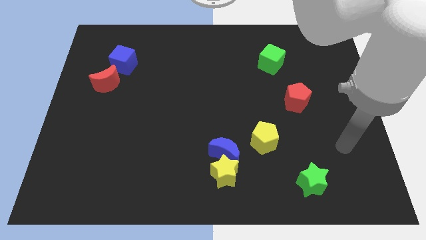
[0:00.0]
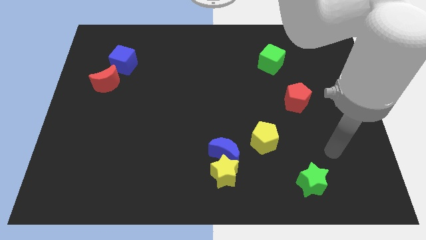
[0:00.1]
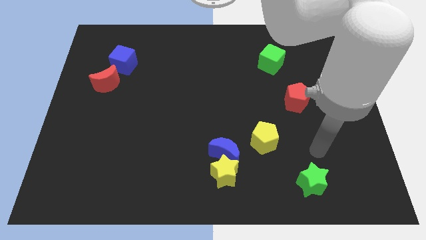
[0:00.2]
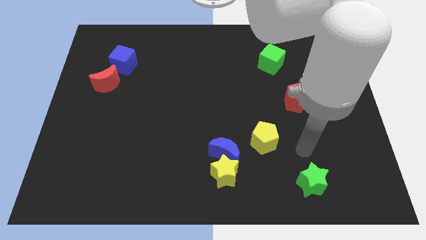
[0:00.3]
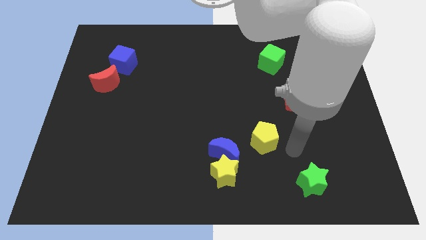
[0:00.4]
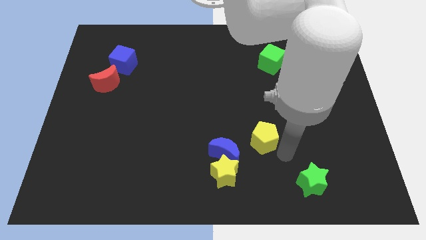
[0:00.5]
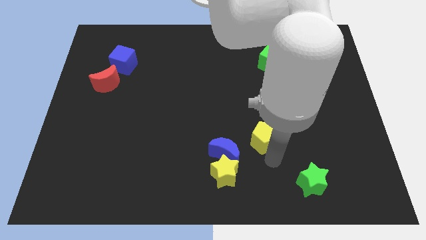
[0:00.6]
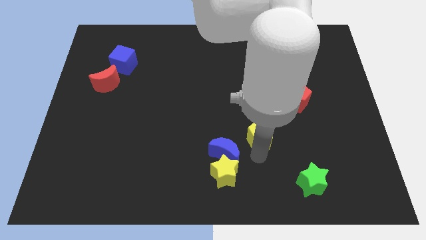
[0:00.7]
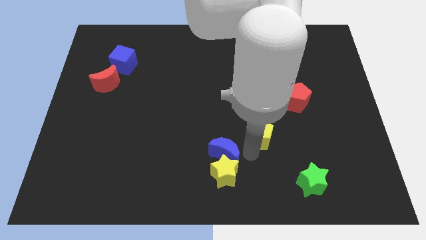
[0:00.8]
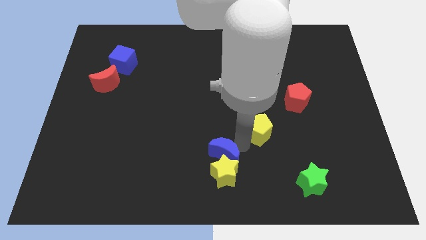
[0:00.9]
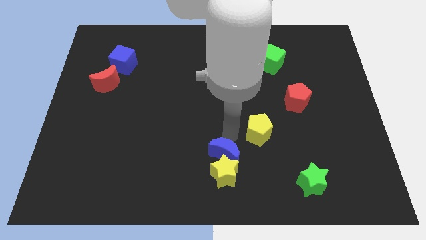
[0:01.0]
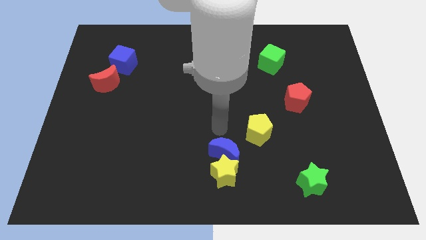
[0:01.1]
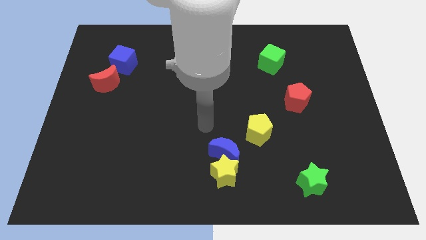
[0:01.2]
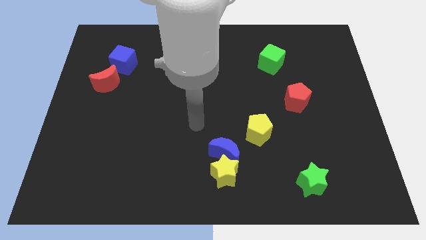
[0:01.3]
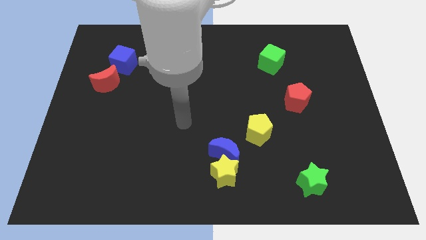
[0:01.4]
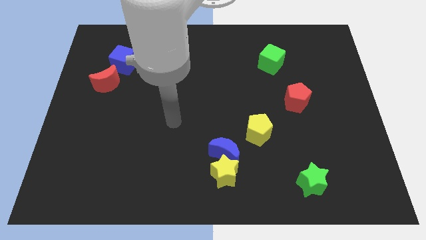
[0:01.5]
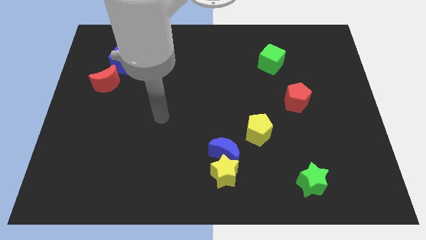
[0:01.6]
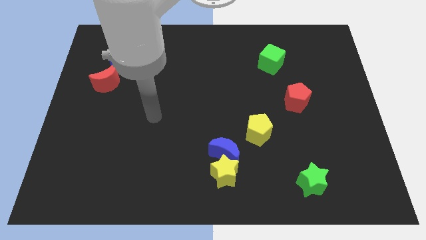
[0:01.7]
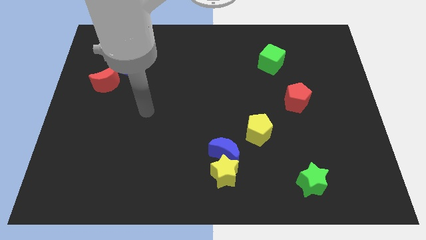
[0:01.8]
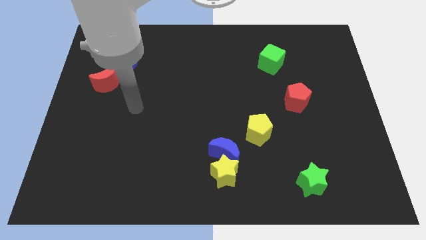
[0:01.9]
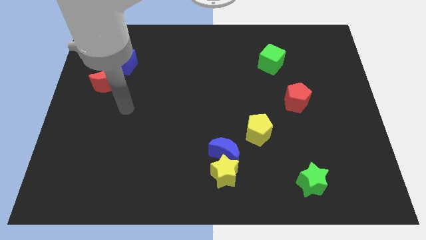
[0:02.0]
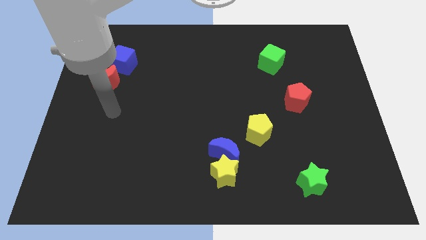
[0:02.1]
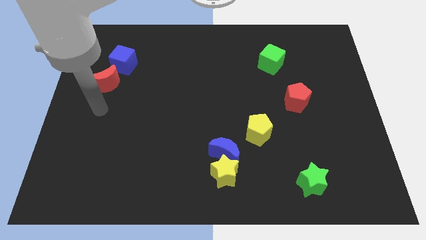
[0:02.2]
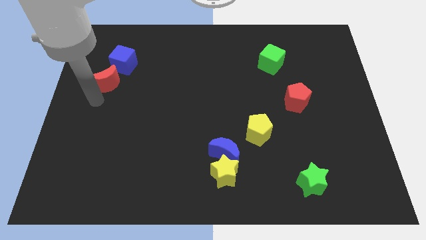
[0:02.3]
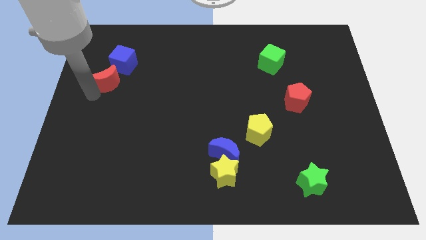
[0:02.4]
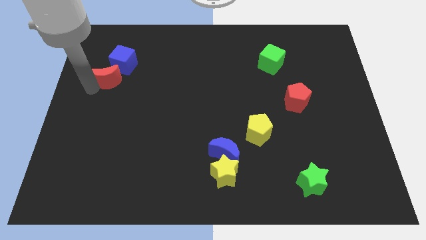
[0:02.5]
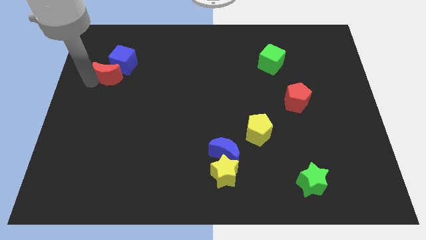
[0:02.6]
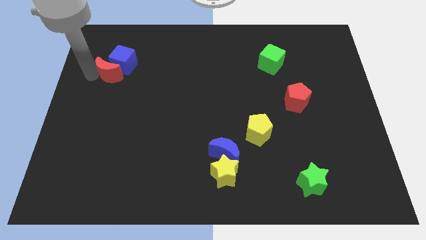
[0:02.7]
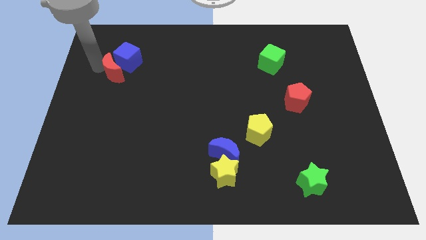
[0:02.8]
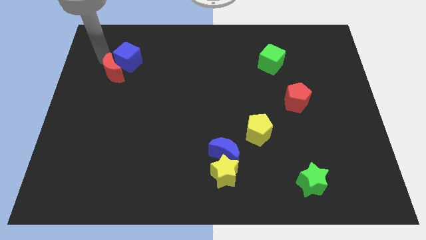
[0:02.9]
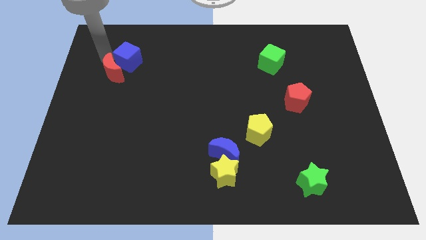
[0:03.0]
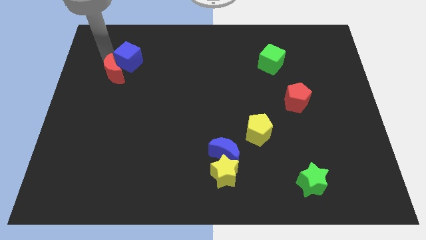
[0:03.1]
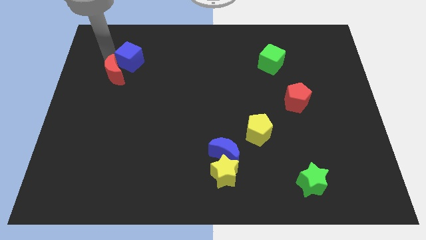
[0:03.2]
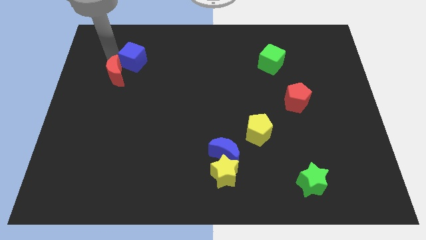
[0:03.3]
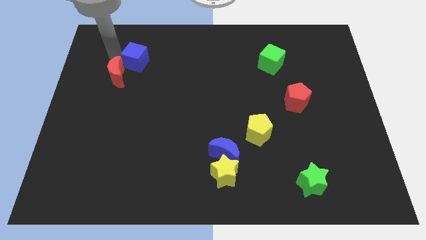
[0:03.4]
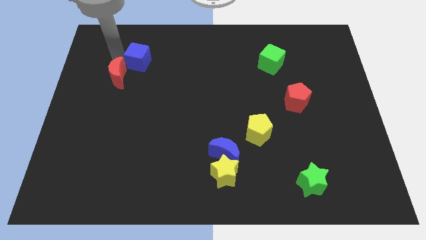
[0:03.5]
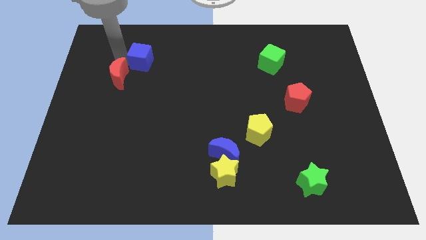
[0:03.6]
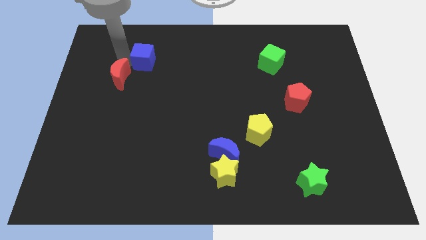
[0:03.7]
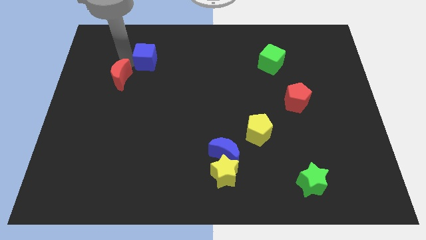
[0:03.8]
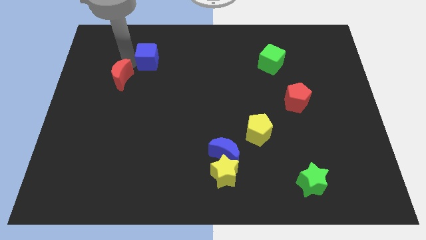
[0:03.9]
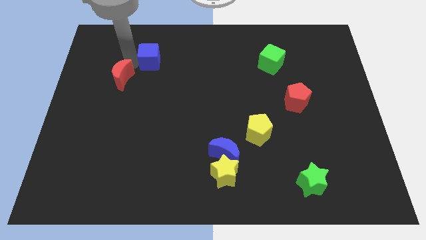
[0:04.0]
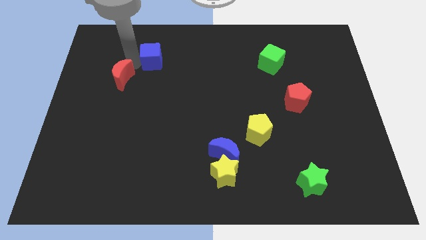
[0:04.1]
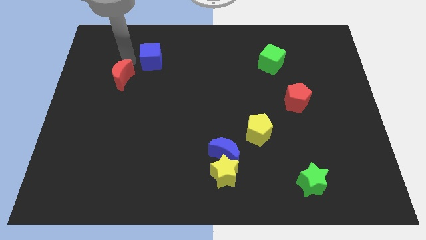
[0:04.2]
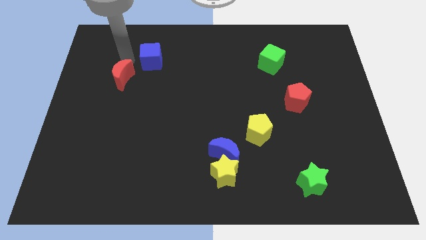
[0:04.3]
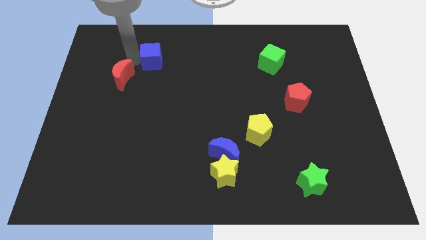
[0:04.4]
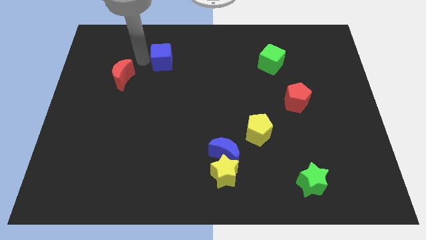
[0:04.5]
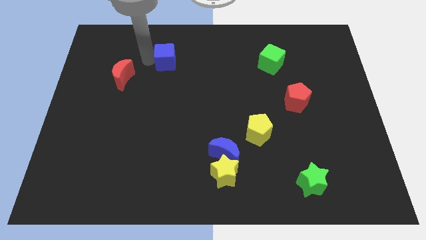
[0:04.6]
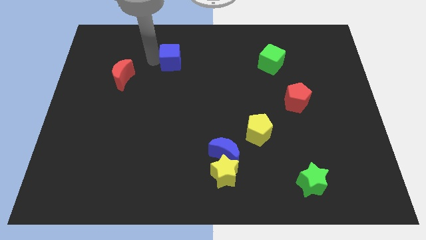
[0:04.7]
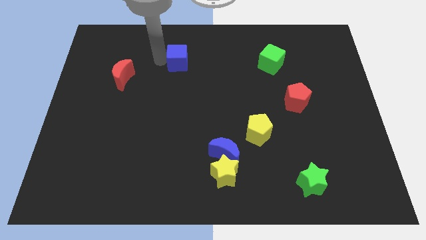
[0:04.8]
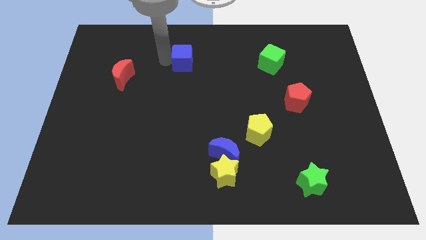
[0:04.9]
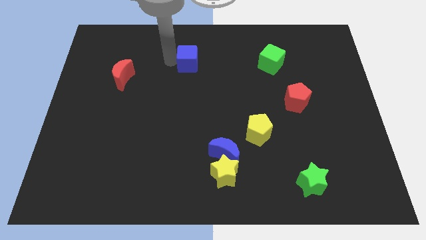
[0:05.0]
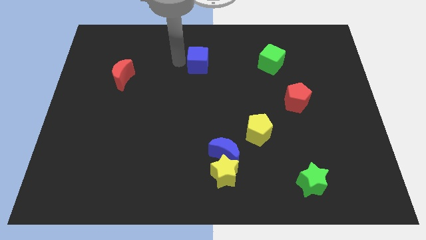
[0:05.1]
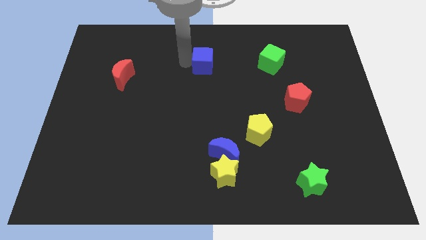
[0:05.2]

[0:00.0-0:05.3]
slide the blue cube to the right

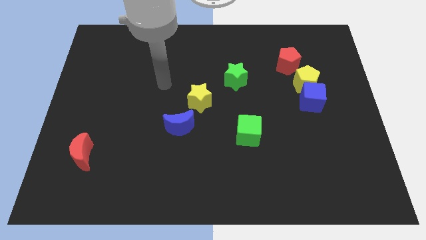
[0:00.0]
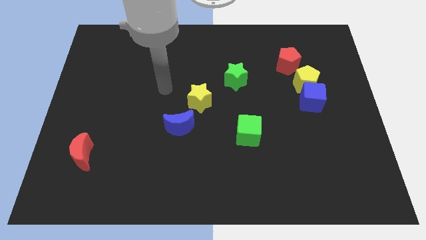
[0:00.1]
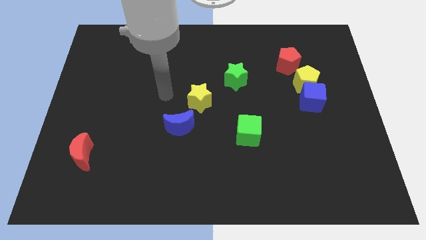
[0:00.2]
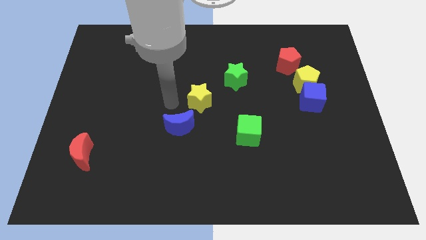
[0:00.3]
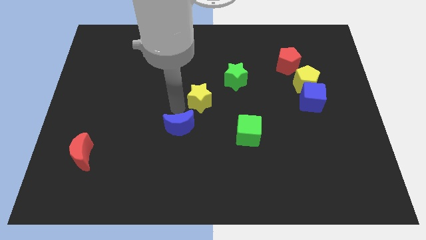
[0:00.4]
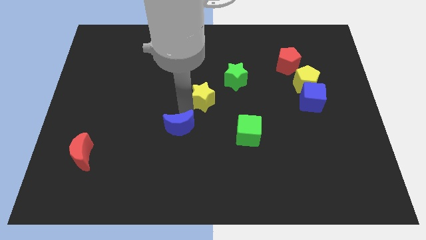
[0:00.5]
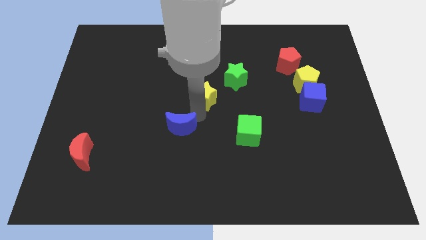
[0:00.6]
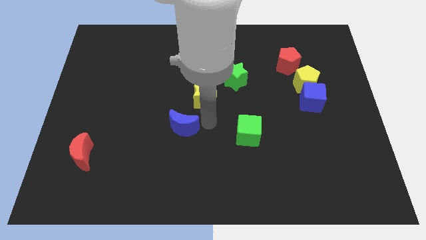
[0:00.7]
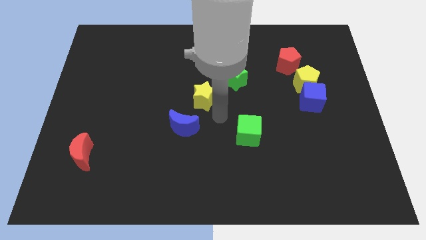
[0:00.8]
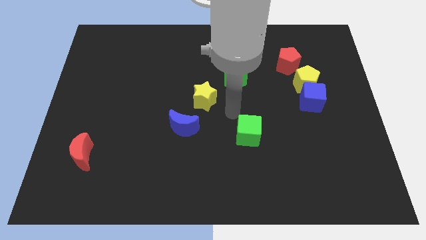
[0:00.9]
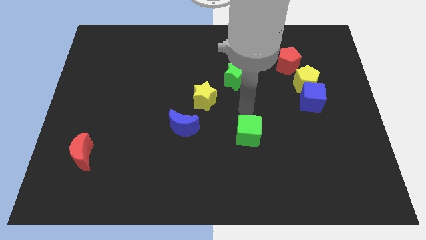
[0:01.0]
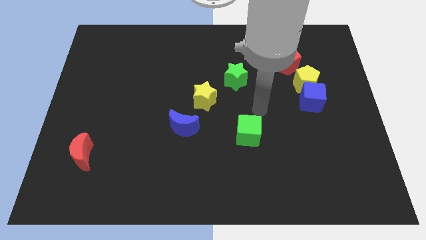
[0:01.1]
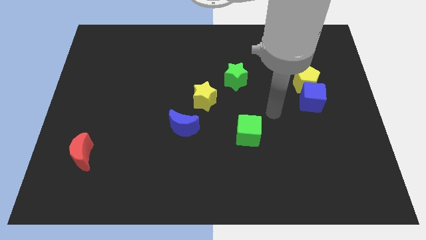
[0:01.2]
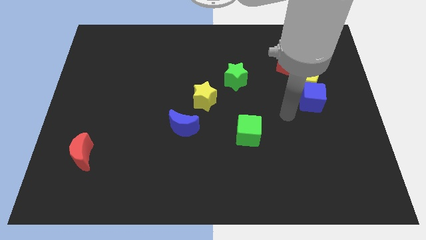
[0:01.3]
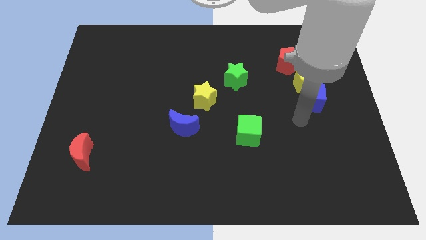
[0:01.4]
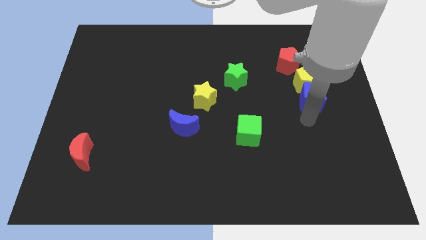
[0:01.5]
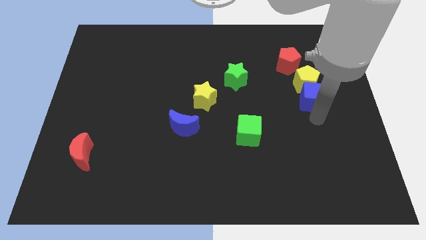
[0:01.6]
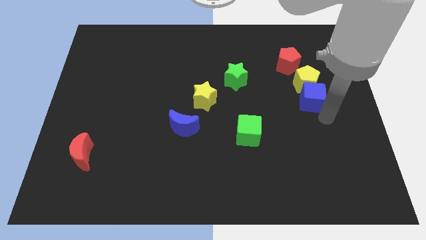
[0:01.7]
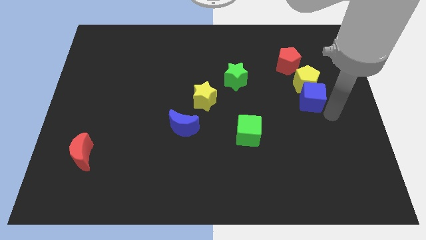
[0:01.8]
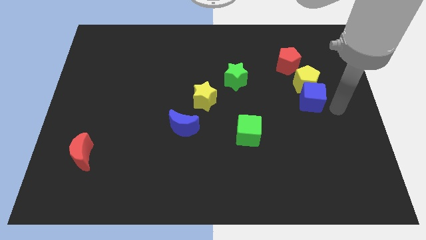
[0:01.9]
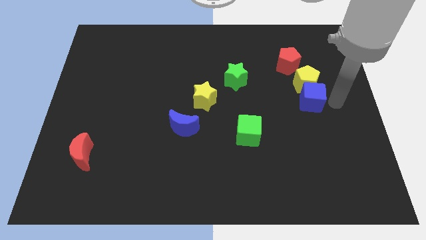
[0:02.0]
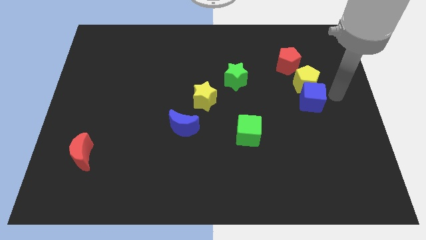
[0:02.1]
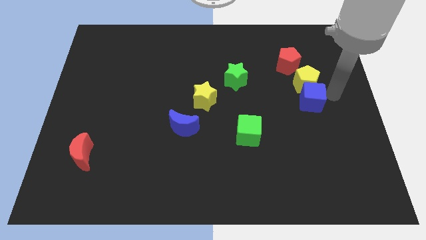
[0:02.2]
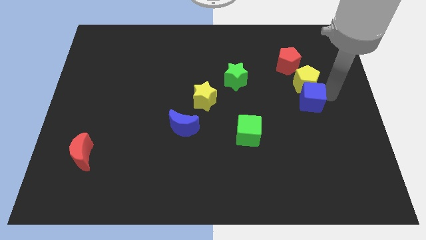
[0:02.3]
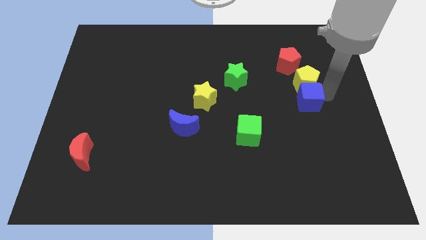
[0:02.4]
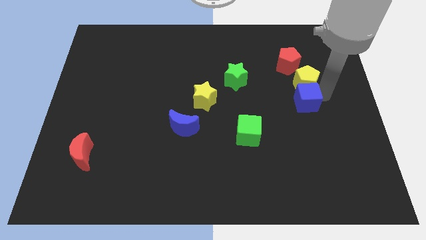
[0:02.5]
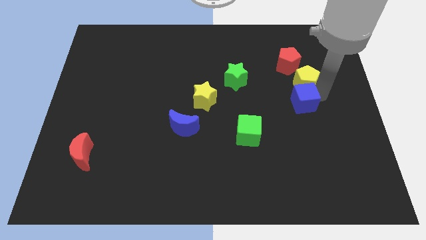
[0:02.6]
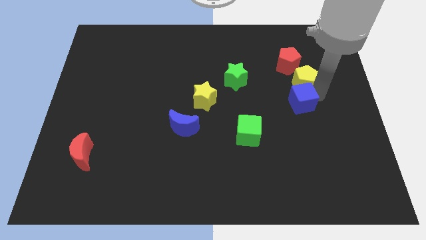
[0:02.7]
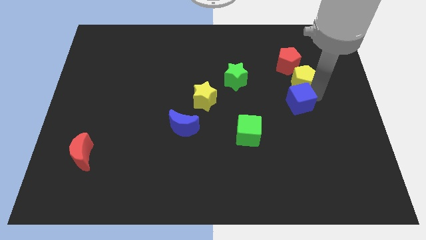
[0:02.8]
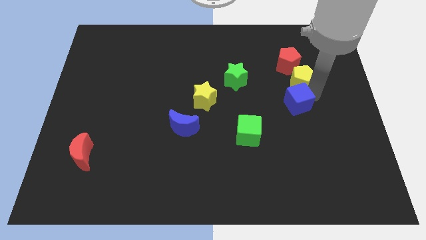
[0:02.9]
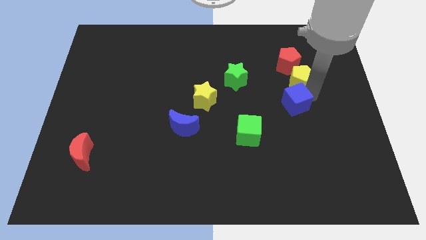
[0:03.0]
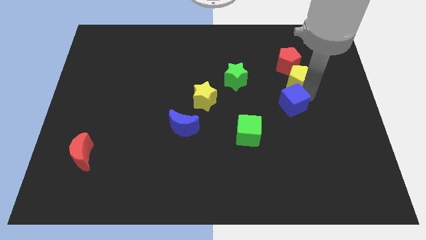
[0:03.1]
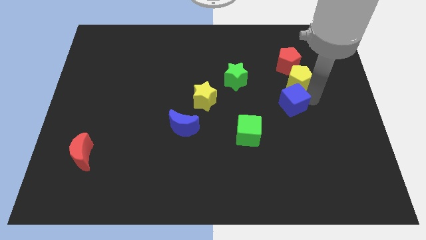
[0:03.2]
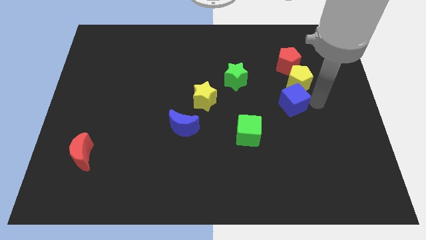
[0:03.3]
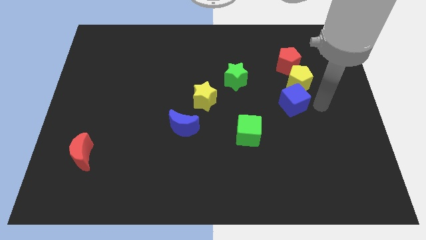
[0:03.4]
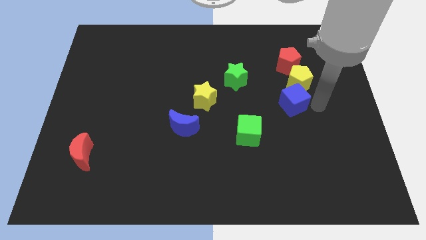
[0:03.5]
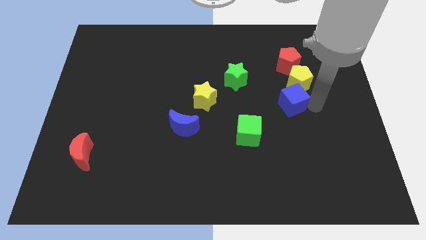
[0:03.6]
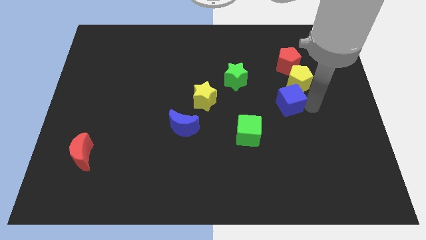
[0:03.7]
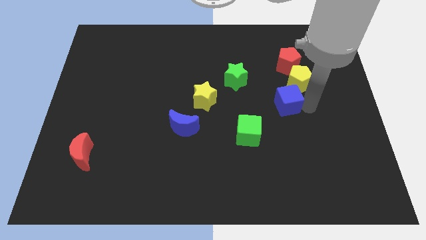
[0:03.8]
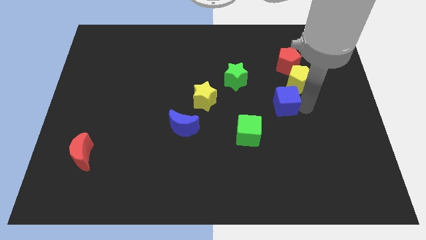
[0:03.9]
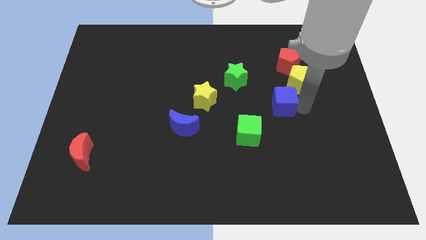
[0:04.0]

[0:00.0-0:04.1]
slide the blue cube to the left a bit
